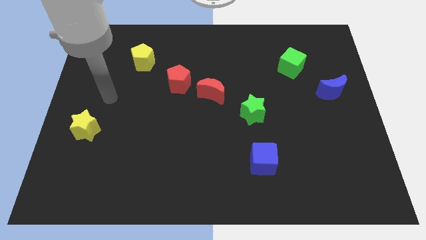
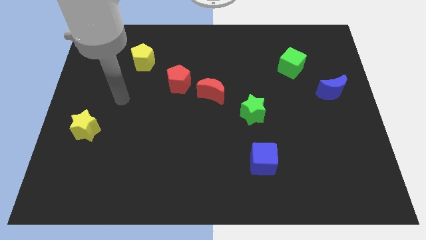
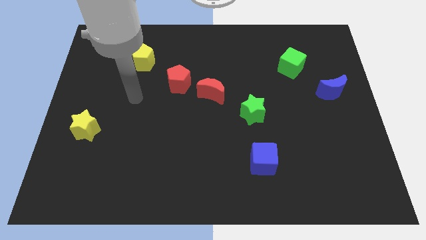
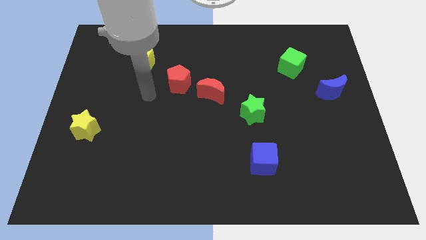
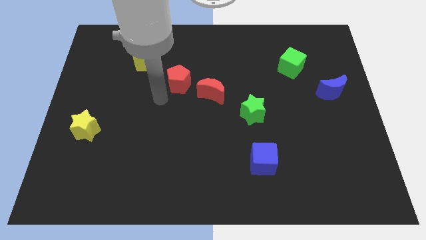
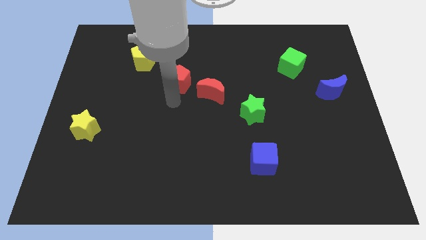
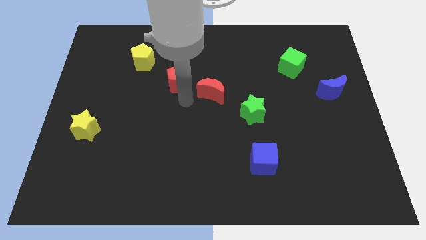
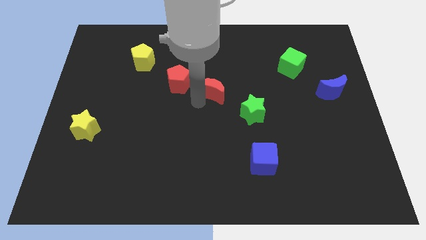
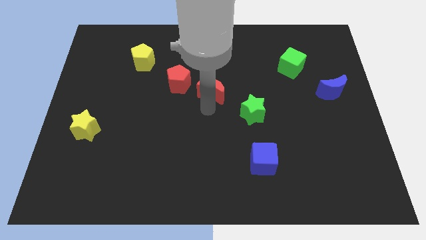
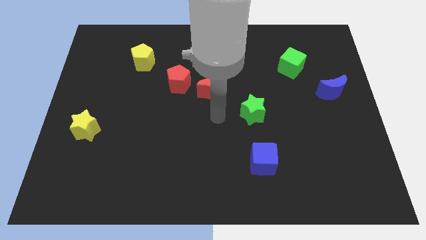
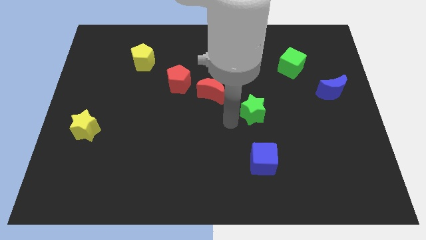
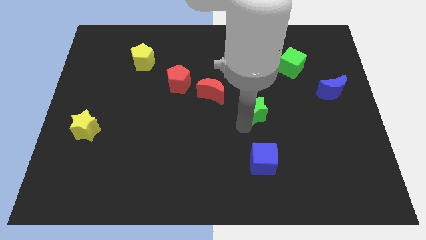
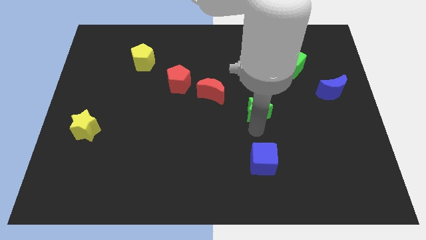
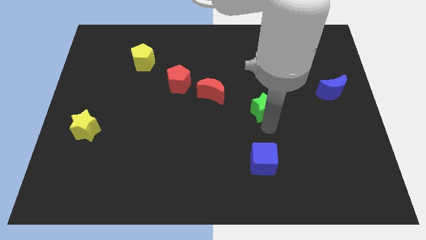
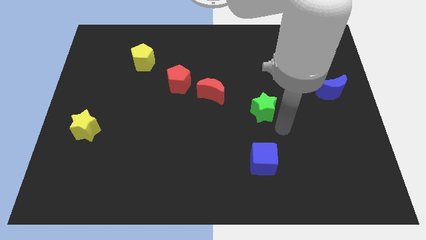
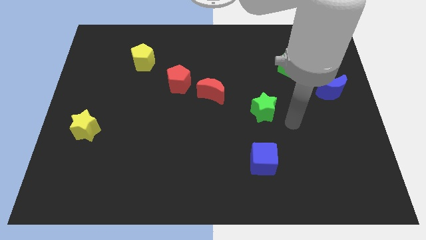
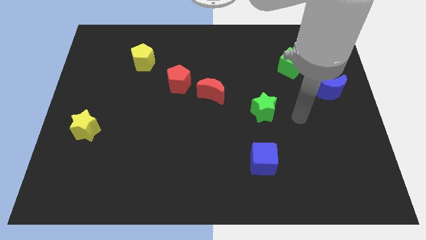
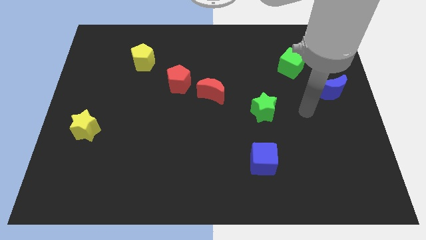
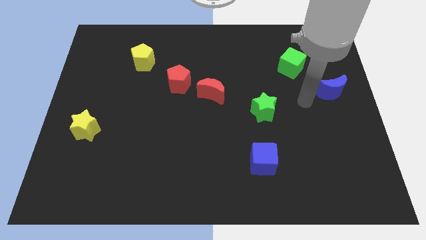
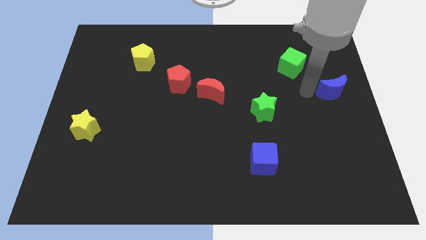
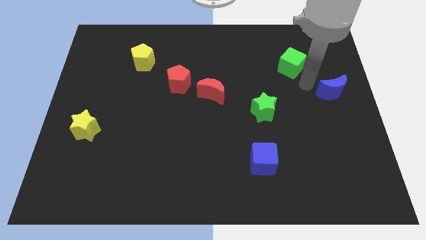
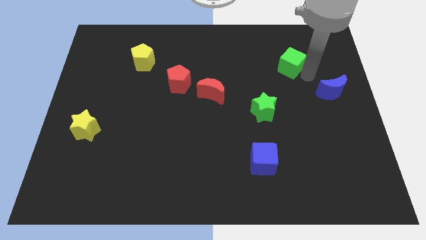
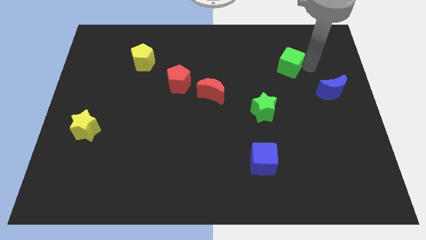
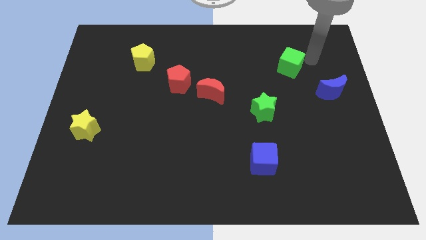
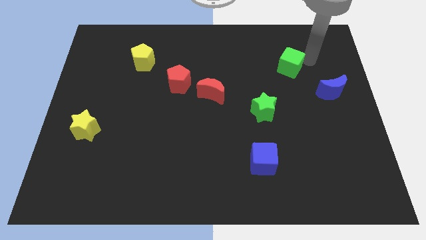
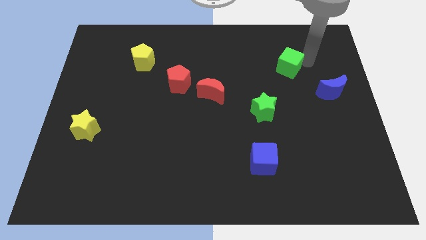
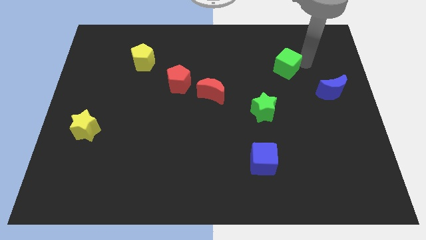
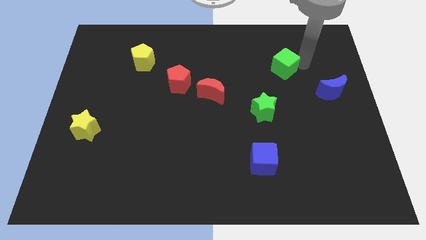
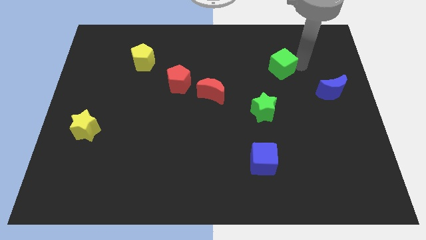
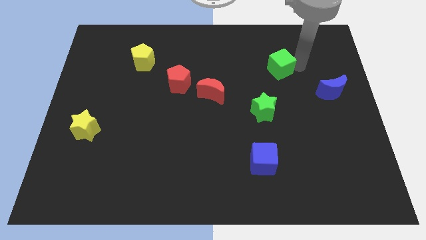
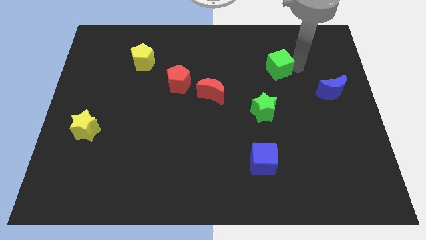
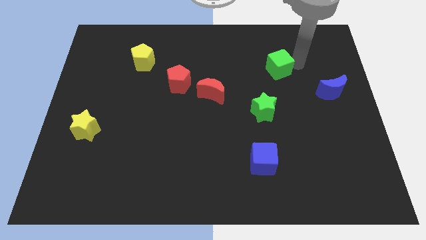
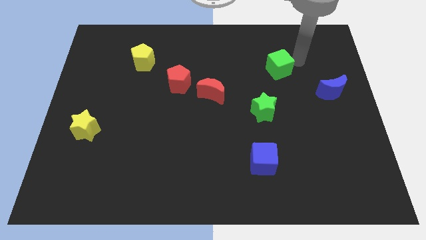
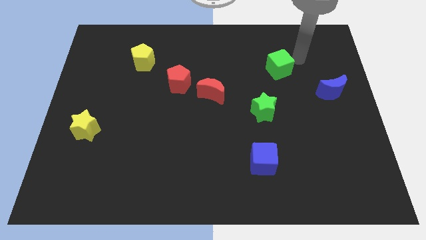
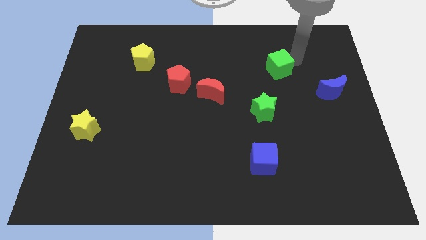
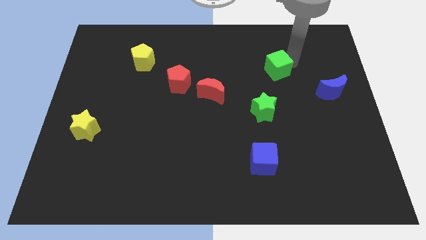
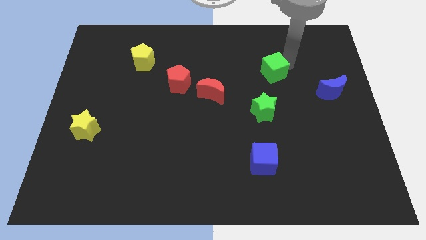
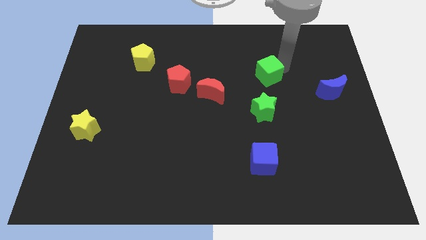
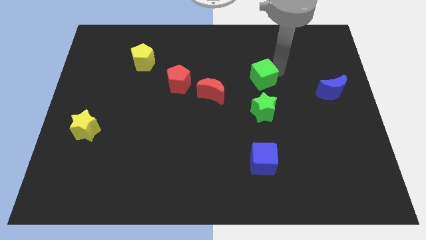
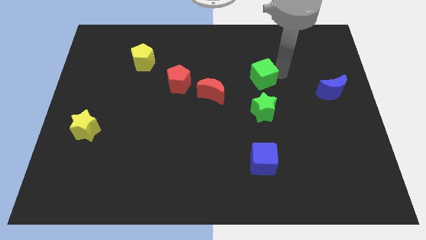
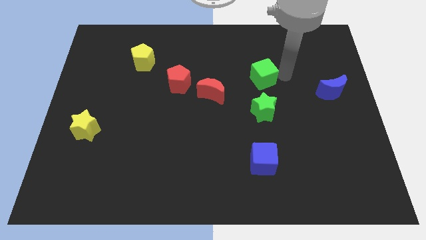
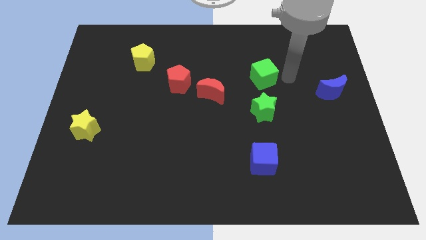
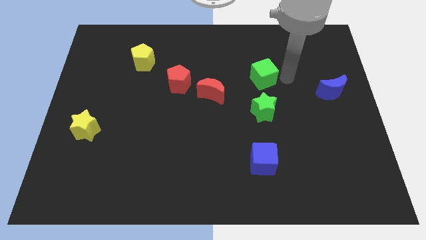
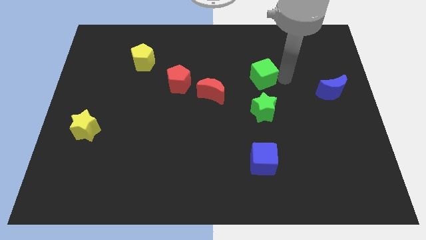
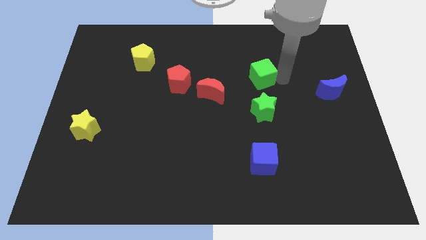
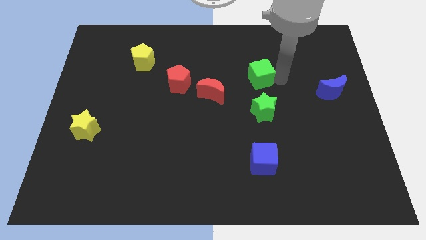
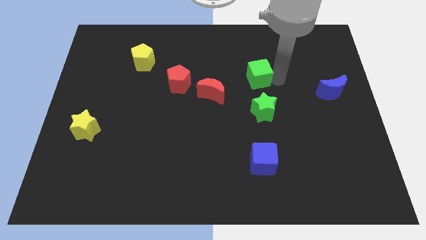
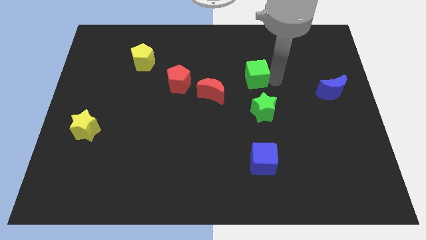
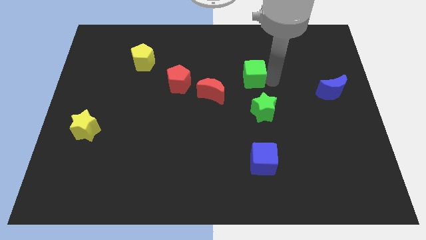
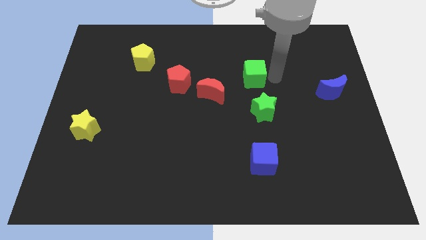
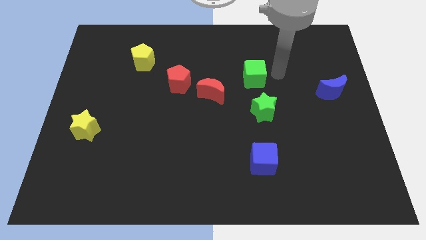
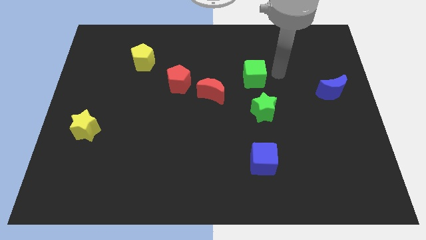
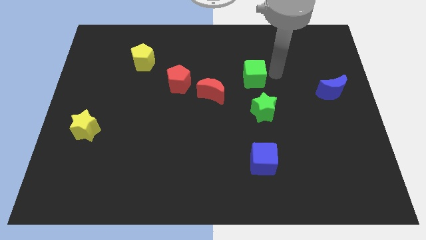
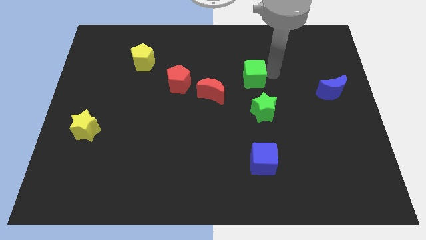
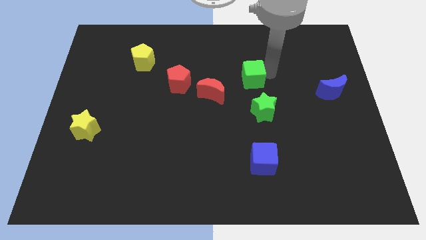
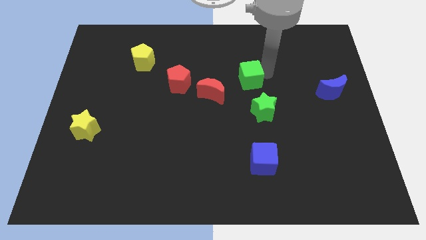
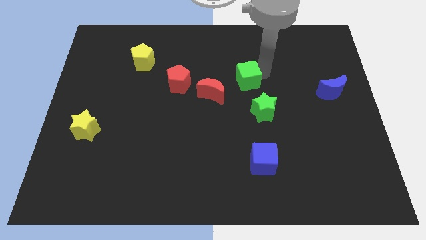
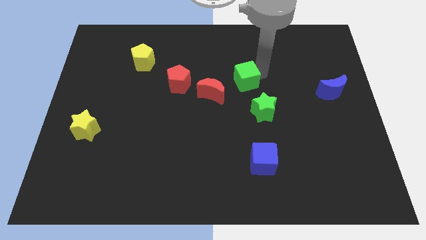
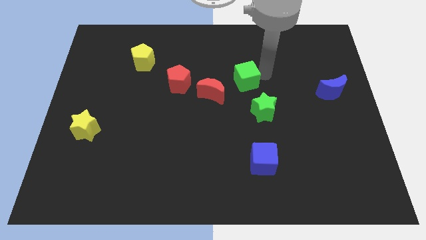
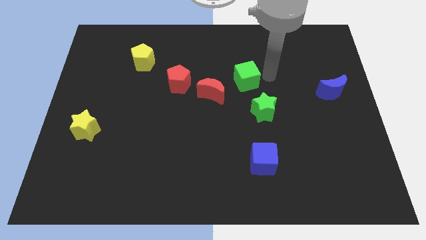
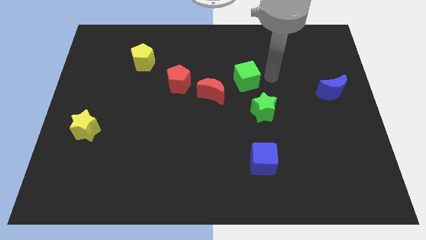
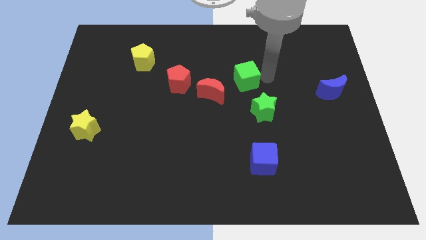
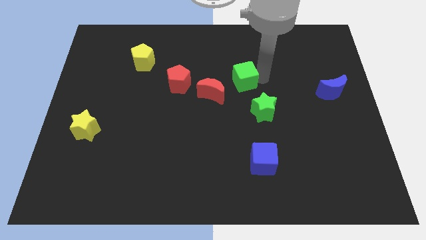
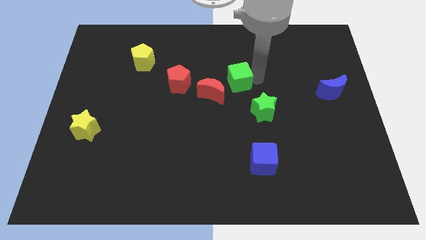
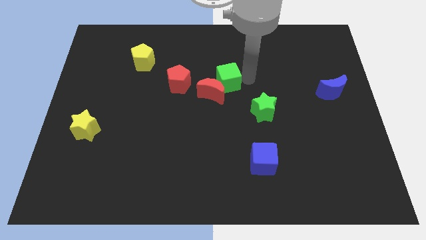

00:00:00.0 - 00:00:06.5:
put the green cube towards the red moon

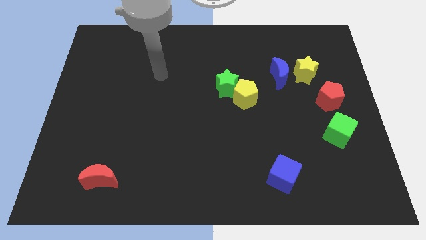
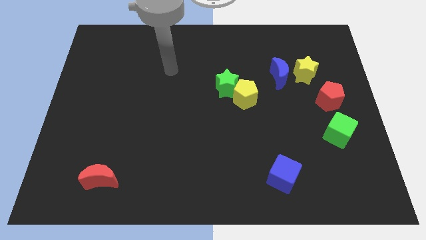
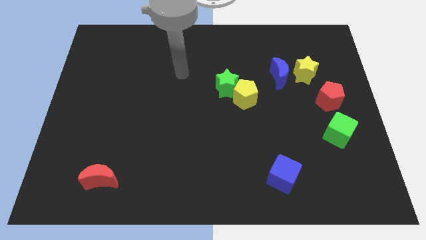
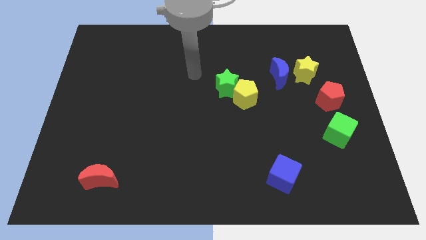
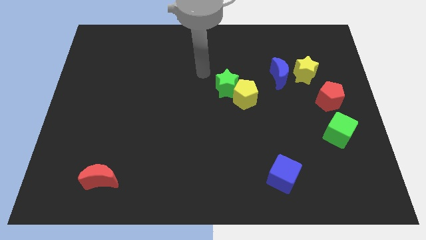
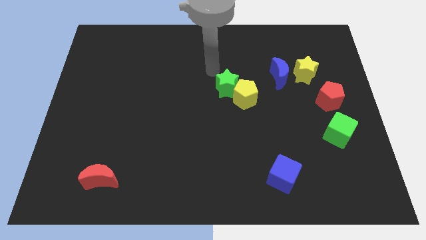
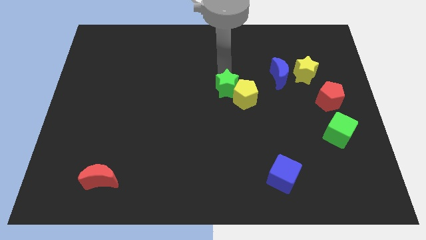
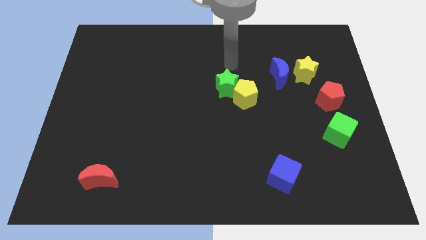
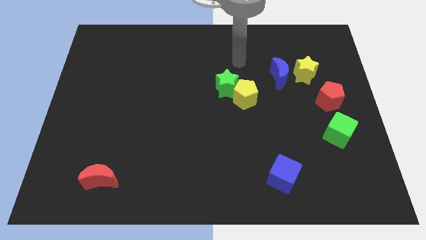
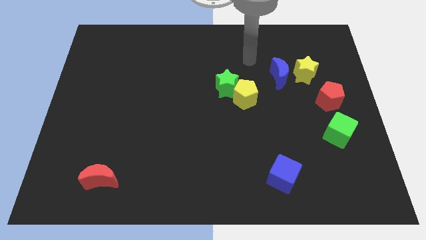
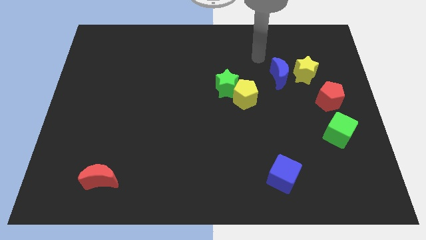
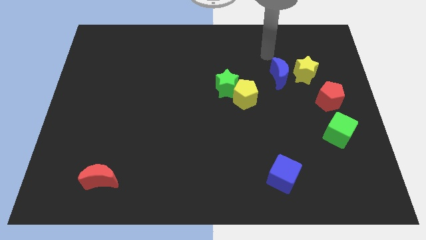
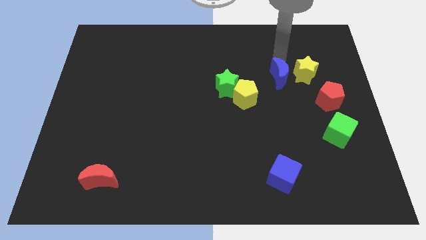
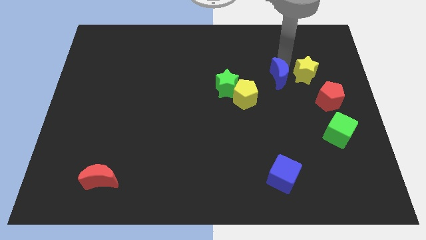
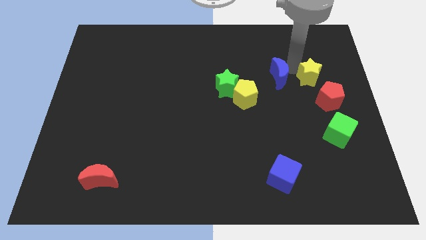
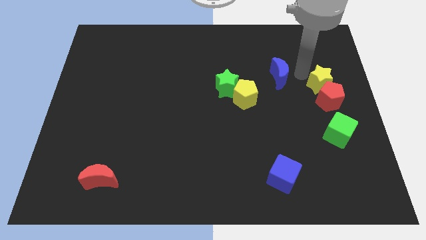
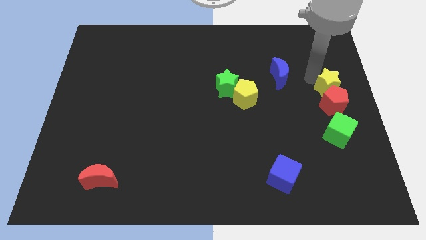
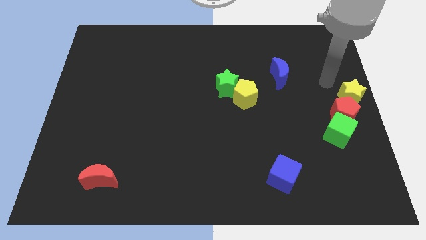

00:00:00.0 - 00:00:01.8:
push the red pentagon close to the green cube
